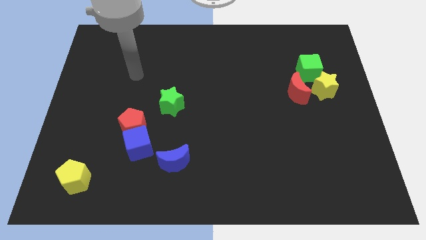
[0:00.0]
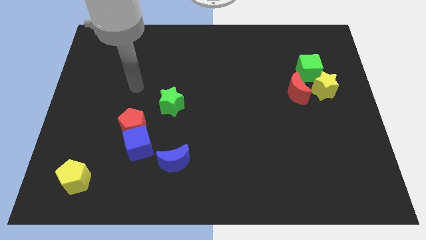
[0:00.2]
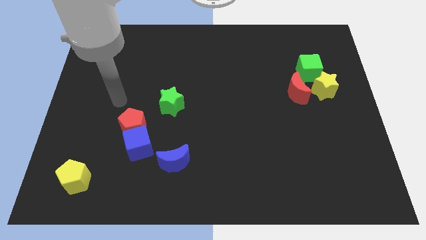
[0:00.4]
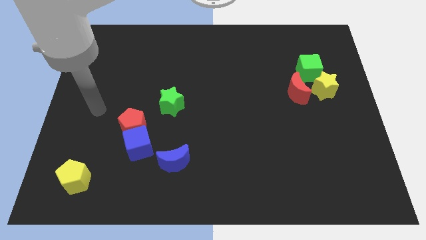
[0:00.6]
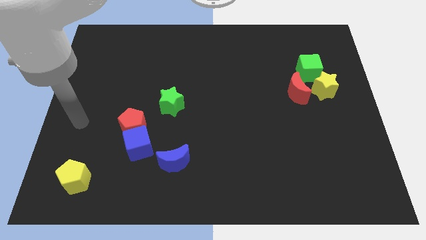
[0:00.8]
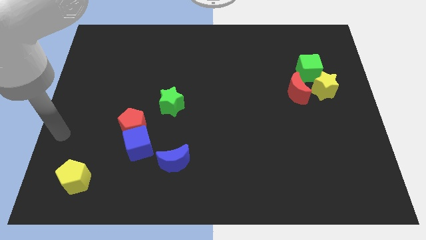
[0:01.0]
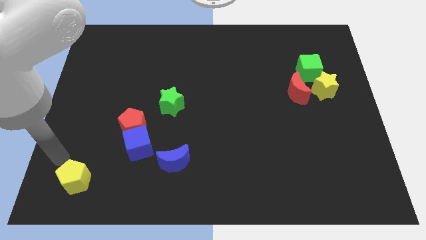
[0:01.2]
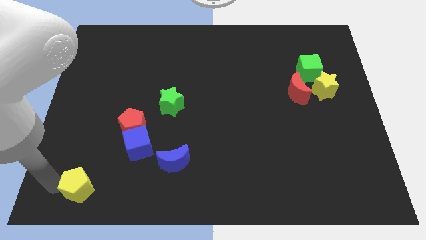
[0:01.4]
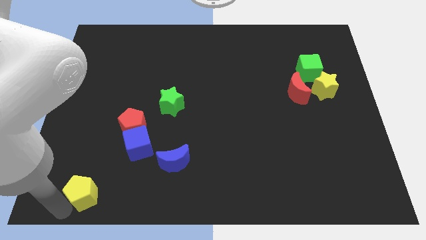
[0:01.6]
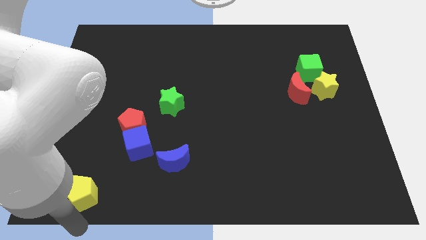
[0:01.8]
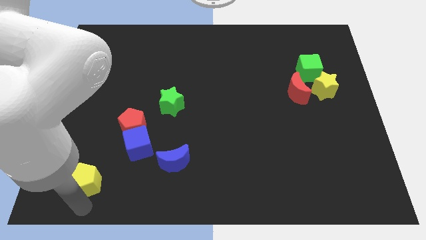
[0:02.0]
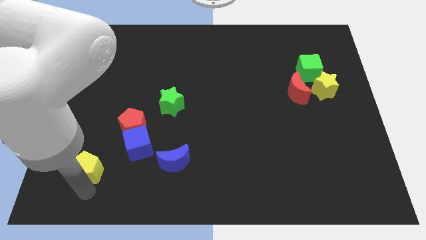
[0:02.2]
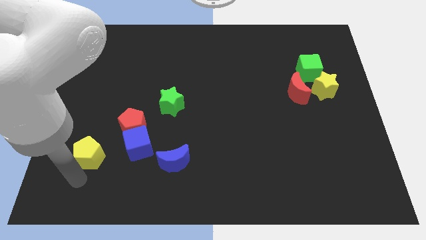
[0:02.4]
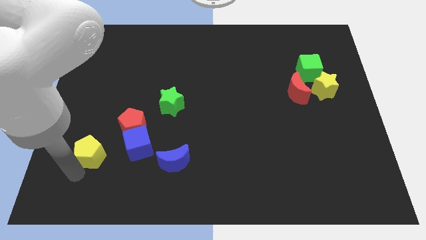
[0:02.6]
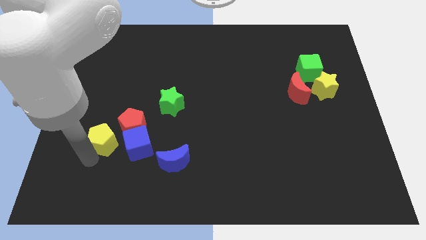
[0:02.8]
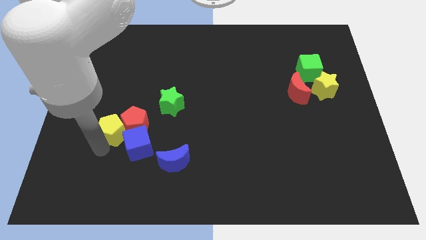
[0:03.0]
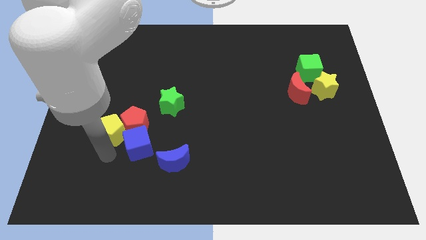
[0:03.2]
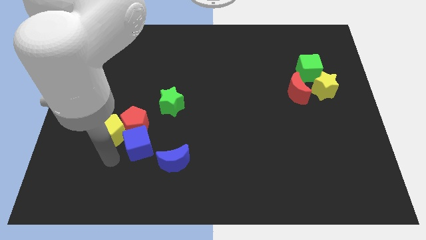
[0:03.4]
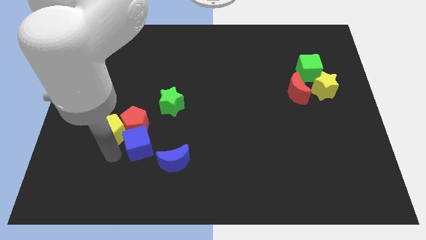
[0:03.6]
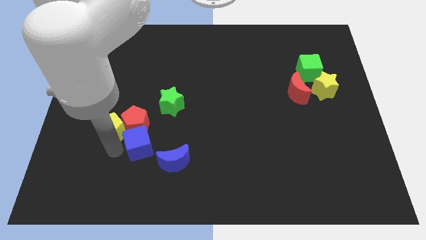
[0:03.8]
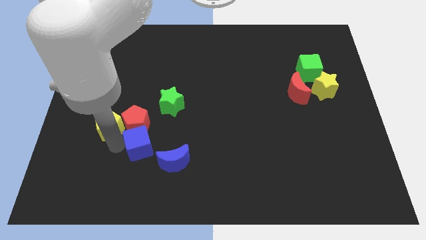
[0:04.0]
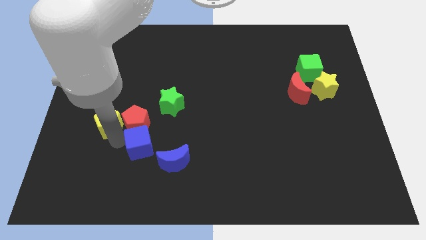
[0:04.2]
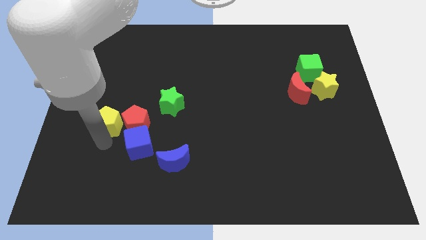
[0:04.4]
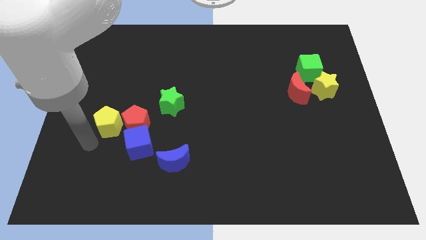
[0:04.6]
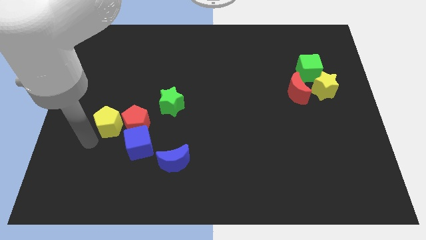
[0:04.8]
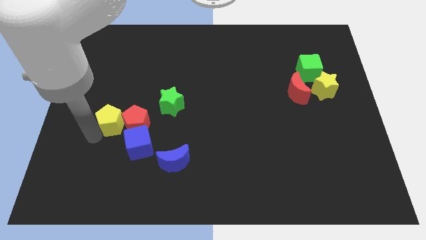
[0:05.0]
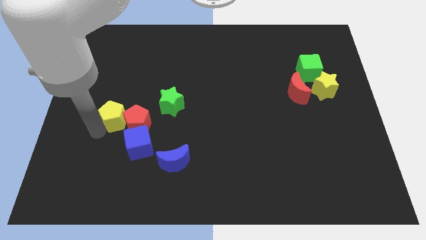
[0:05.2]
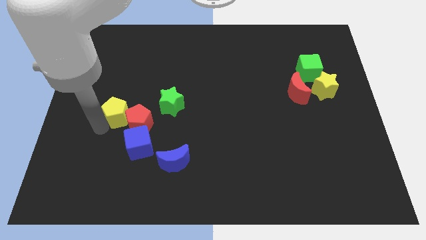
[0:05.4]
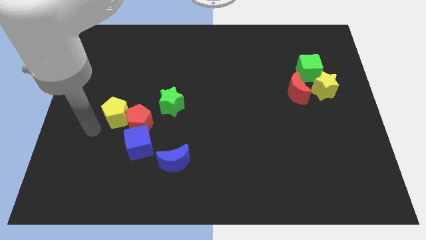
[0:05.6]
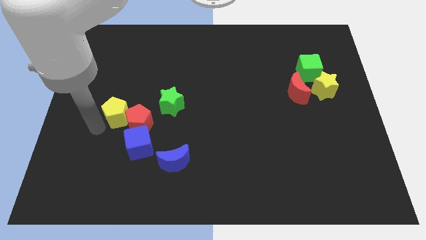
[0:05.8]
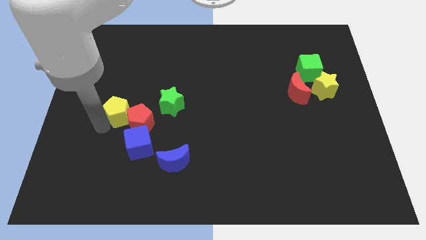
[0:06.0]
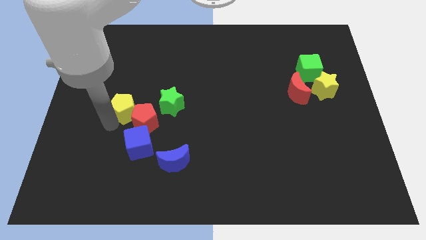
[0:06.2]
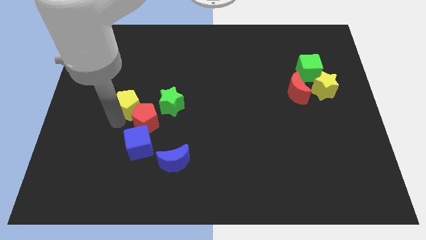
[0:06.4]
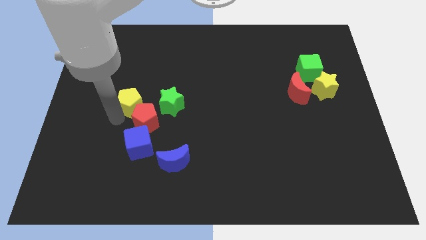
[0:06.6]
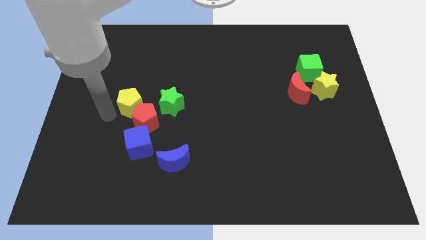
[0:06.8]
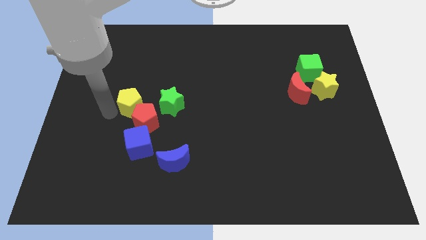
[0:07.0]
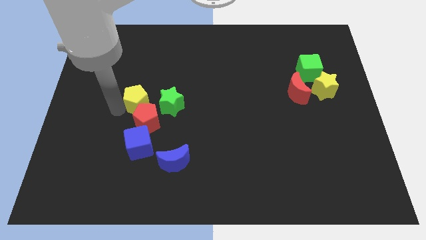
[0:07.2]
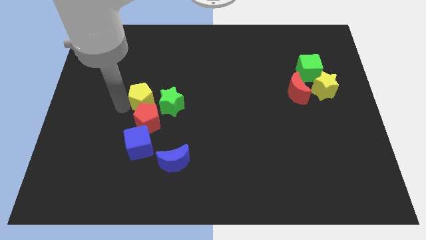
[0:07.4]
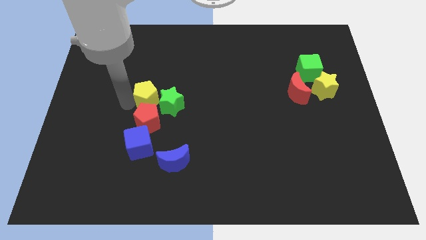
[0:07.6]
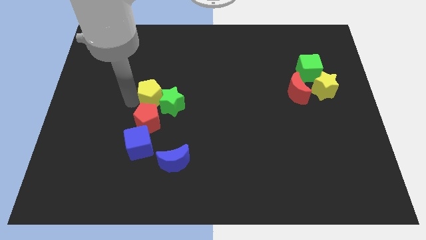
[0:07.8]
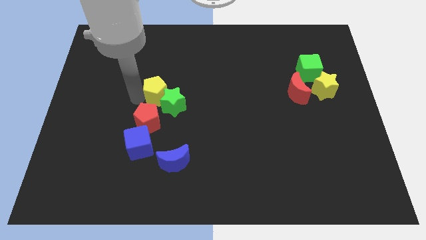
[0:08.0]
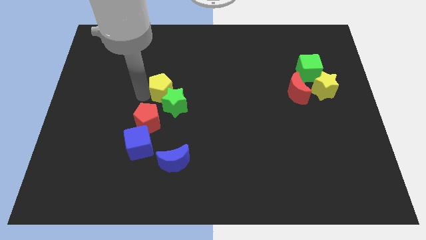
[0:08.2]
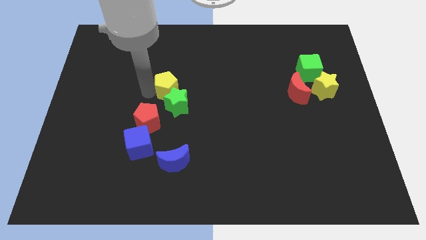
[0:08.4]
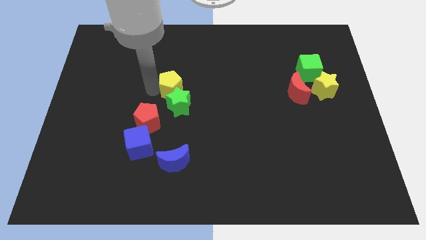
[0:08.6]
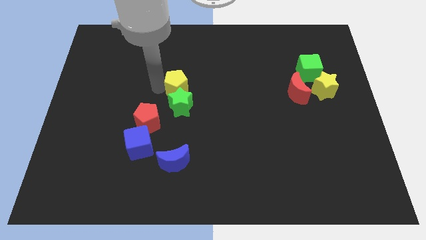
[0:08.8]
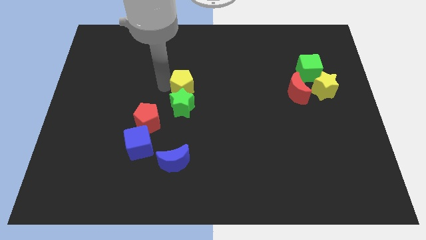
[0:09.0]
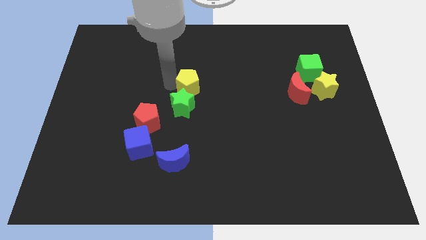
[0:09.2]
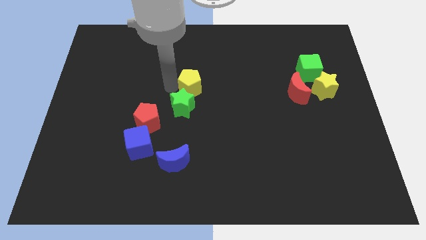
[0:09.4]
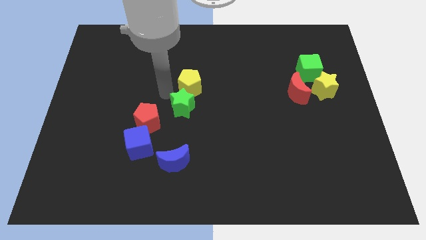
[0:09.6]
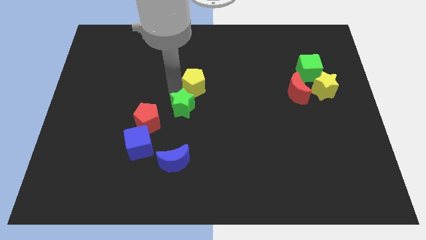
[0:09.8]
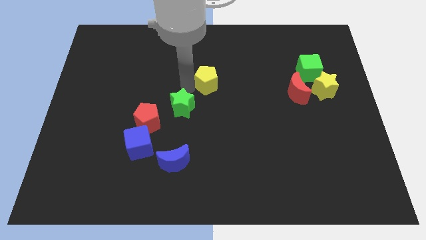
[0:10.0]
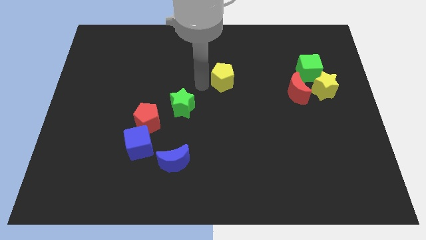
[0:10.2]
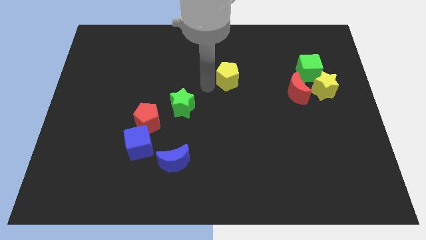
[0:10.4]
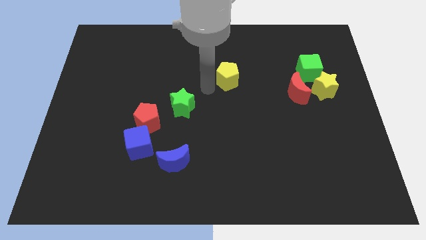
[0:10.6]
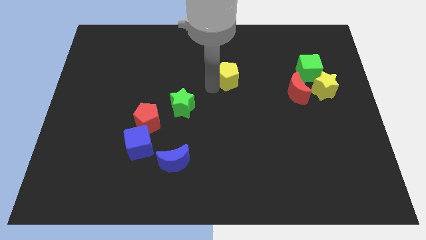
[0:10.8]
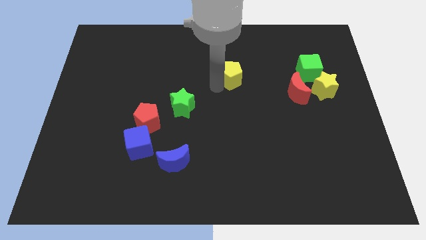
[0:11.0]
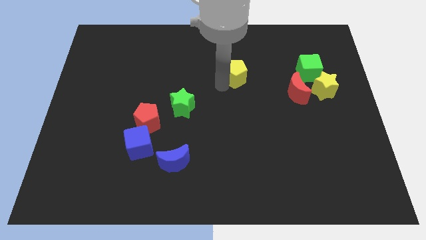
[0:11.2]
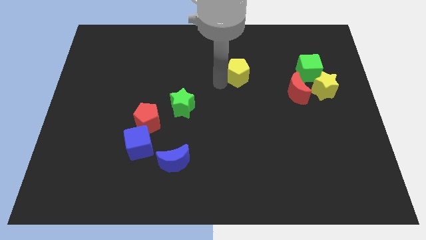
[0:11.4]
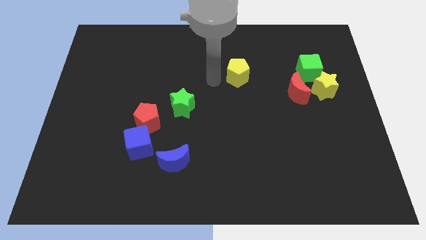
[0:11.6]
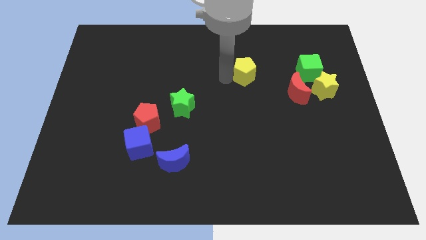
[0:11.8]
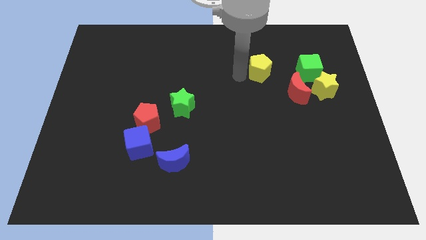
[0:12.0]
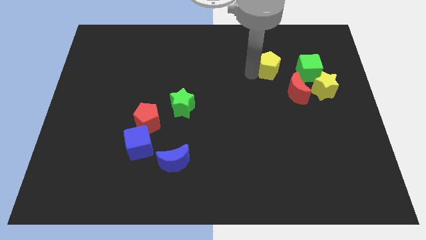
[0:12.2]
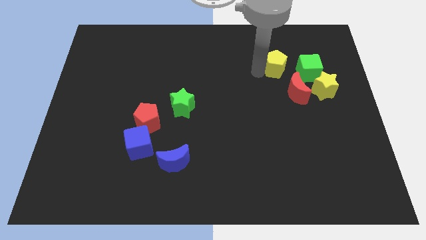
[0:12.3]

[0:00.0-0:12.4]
put the yellow pentagon above the red moon

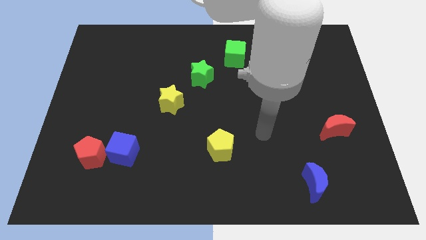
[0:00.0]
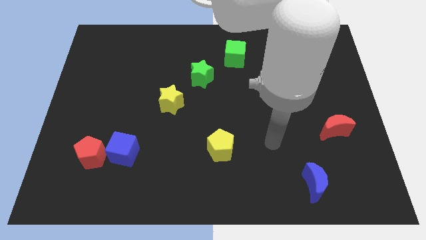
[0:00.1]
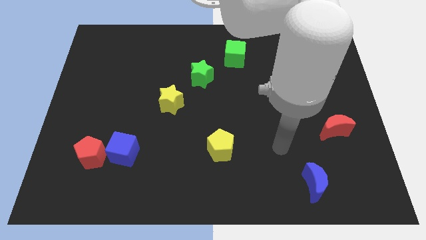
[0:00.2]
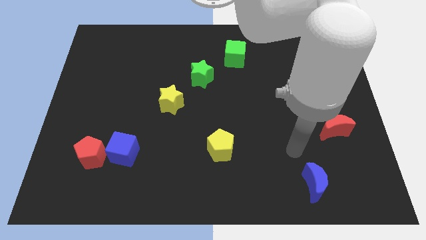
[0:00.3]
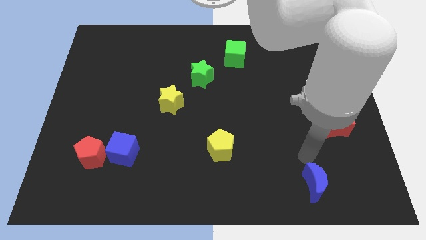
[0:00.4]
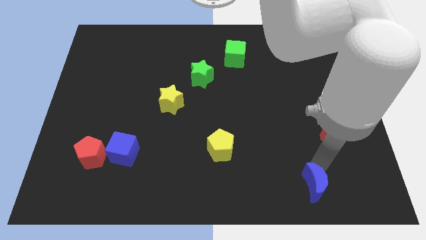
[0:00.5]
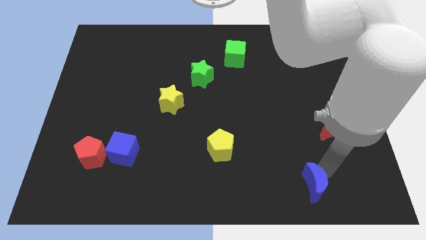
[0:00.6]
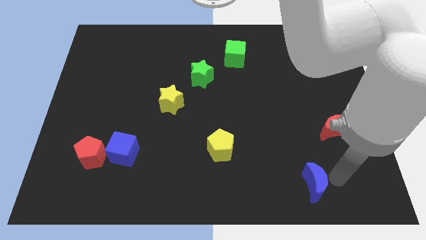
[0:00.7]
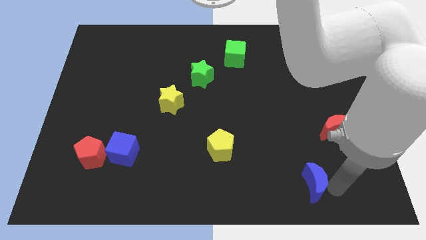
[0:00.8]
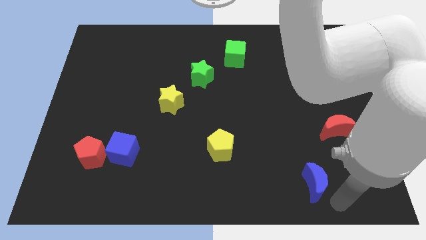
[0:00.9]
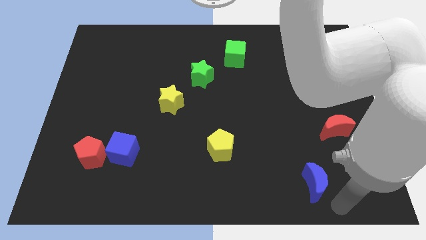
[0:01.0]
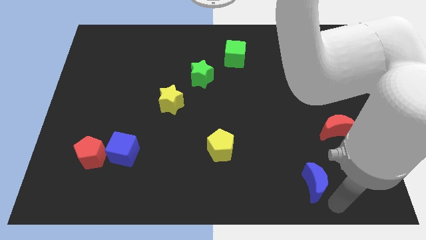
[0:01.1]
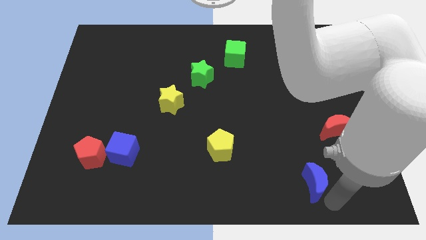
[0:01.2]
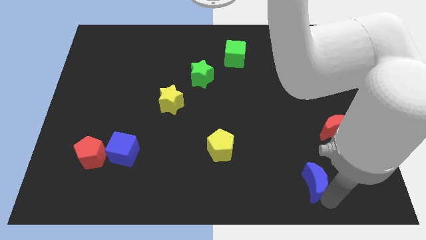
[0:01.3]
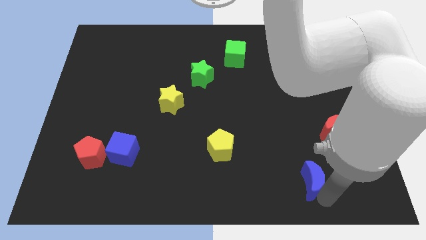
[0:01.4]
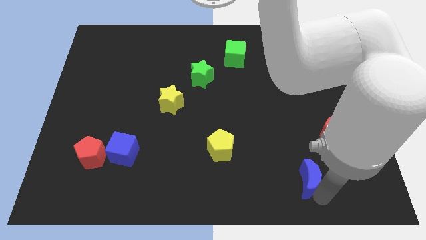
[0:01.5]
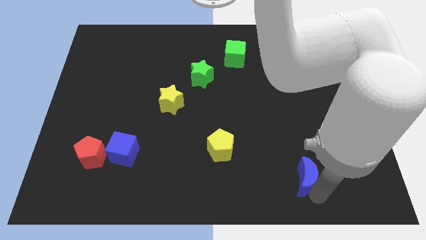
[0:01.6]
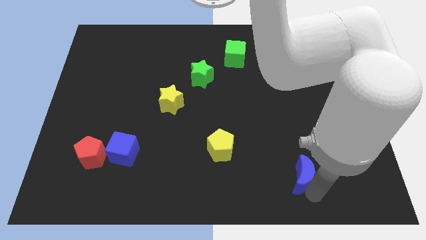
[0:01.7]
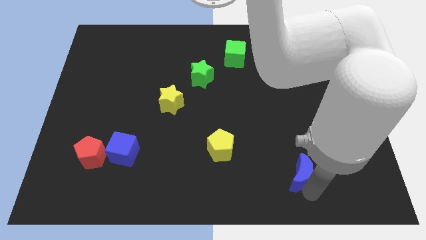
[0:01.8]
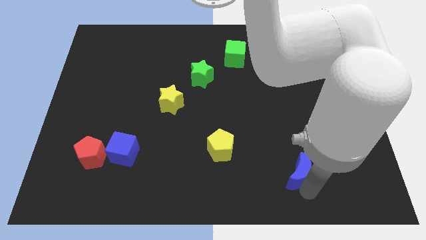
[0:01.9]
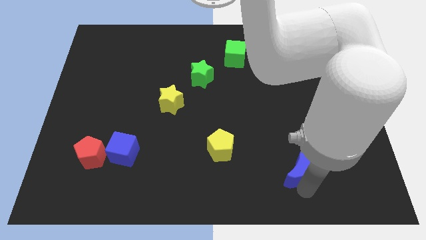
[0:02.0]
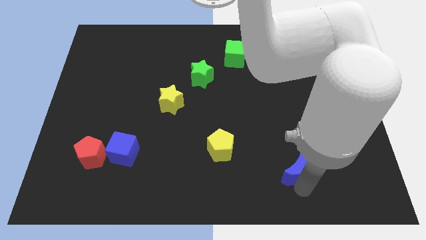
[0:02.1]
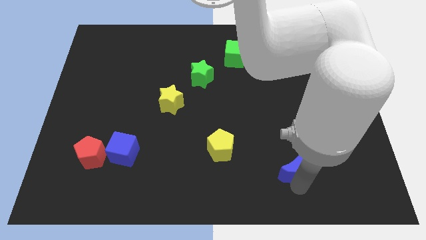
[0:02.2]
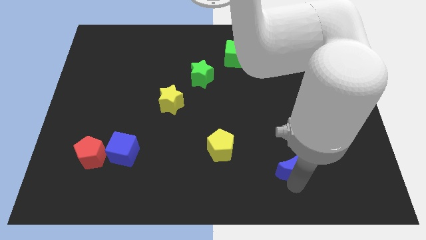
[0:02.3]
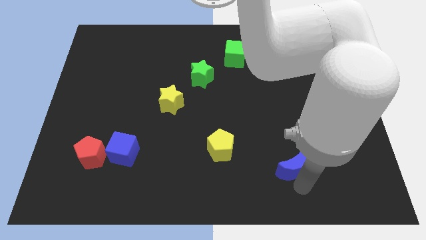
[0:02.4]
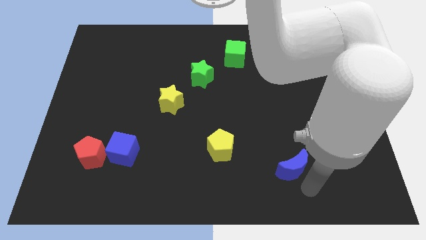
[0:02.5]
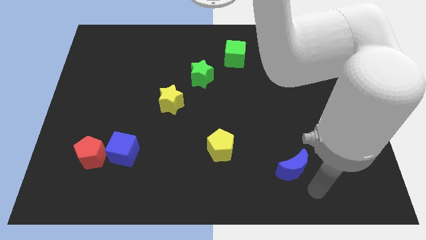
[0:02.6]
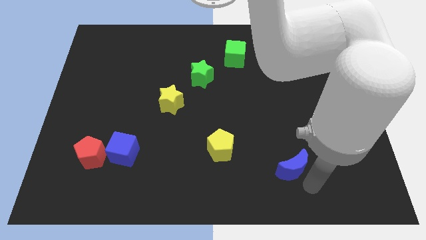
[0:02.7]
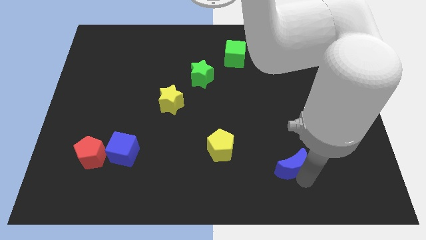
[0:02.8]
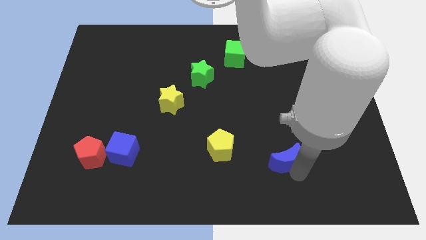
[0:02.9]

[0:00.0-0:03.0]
slide the blue moon to the right side of the yellow pentagon
